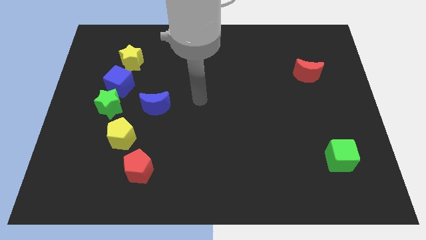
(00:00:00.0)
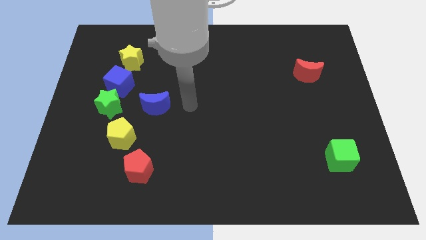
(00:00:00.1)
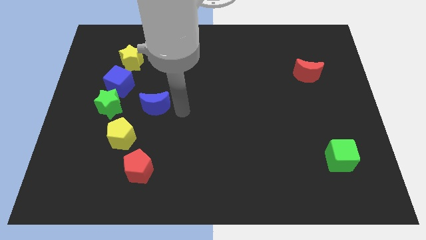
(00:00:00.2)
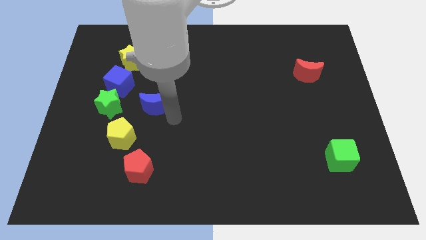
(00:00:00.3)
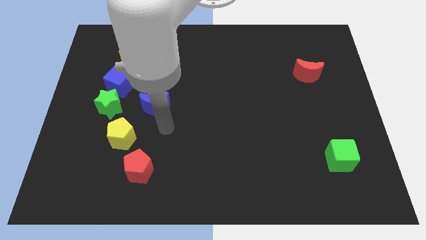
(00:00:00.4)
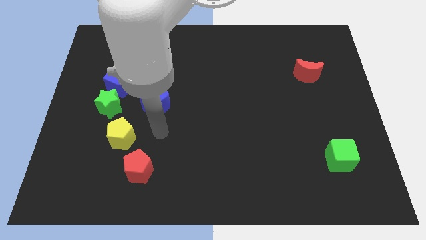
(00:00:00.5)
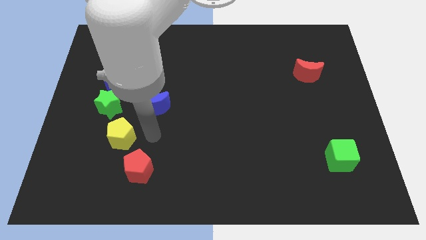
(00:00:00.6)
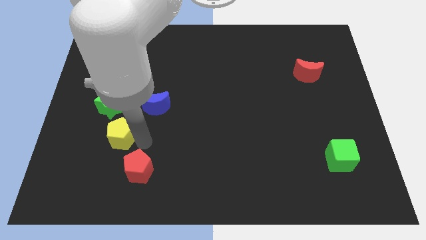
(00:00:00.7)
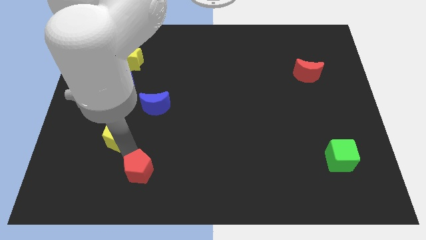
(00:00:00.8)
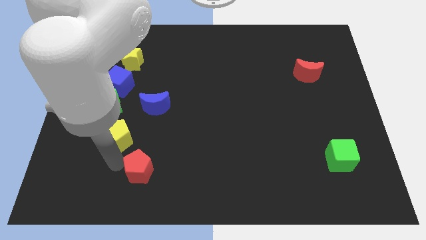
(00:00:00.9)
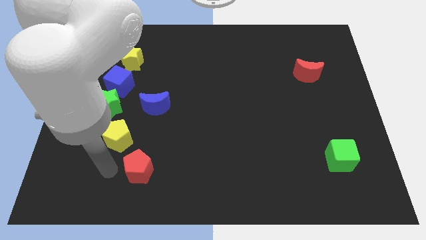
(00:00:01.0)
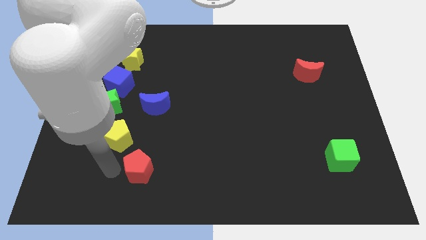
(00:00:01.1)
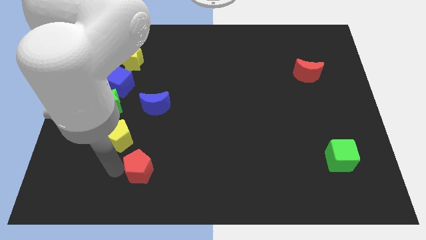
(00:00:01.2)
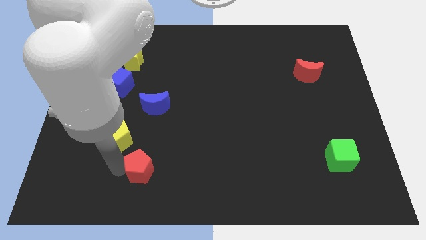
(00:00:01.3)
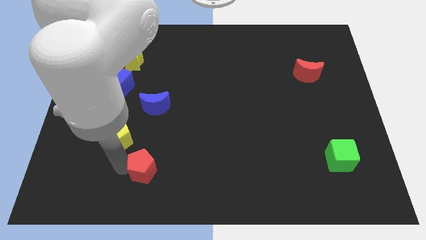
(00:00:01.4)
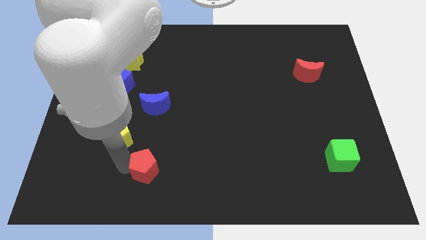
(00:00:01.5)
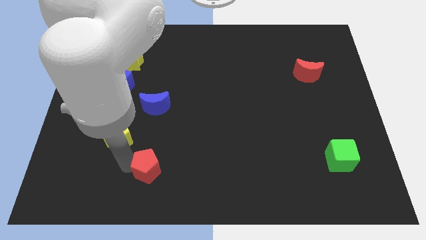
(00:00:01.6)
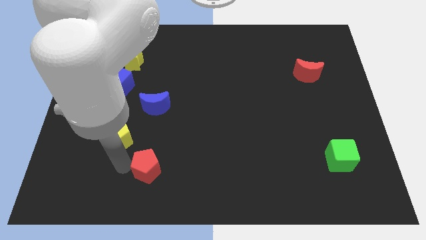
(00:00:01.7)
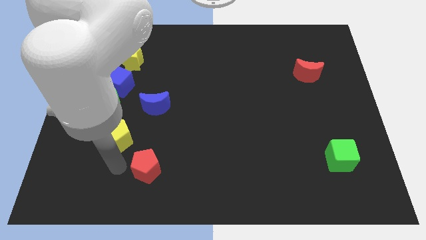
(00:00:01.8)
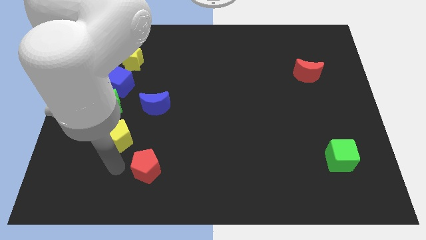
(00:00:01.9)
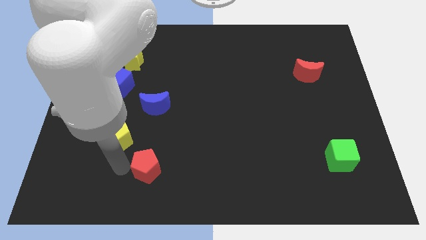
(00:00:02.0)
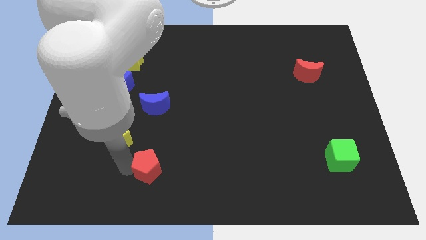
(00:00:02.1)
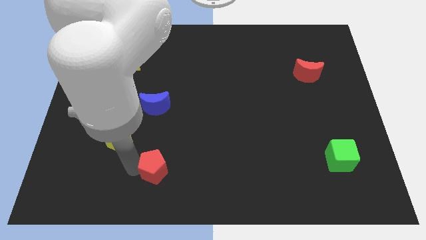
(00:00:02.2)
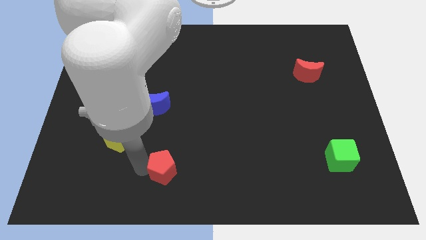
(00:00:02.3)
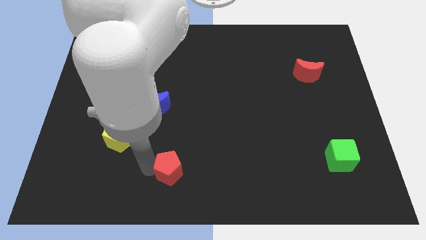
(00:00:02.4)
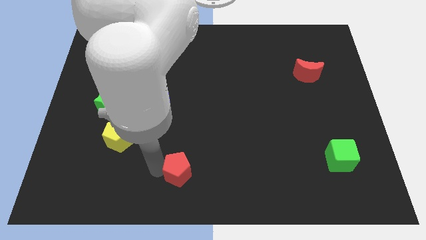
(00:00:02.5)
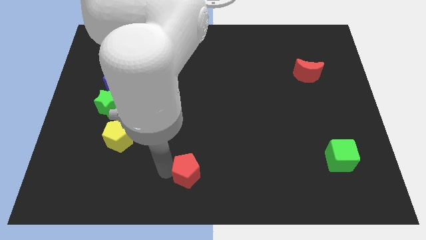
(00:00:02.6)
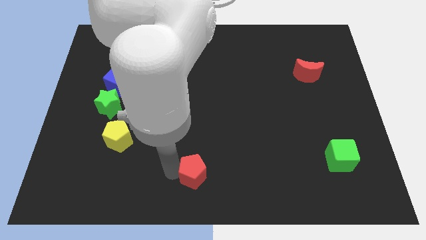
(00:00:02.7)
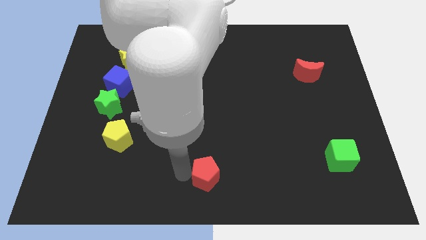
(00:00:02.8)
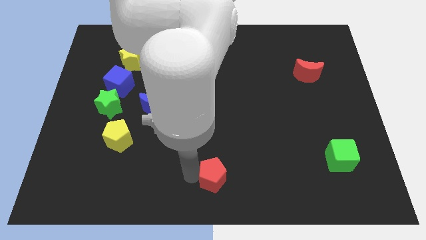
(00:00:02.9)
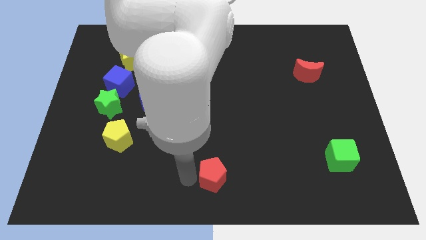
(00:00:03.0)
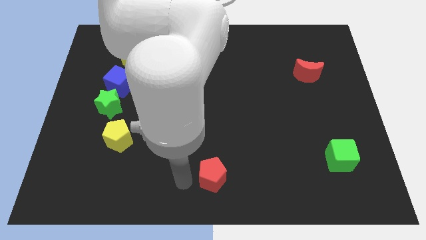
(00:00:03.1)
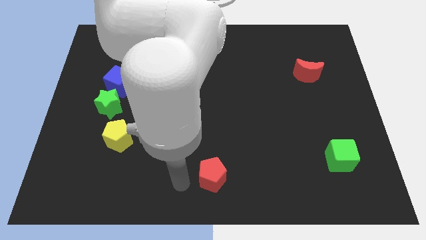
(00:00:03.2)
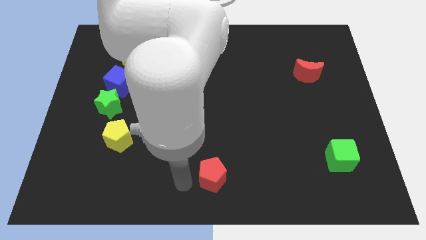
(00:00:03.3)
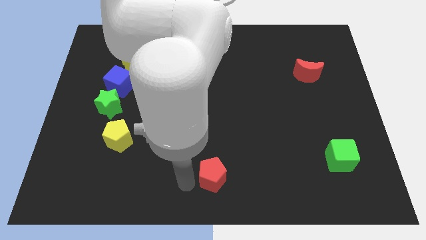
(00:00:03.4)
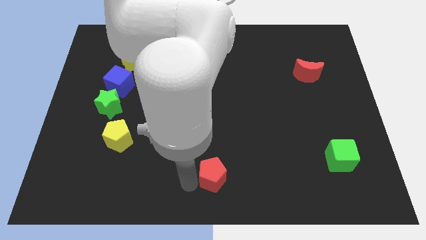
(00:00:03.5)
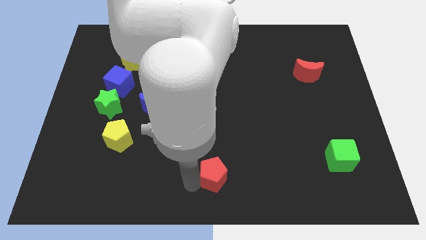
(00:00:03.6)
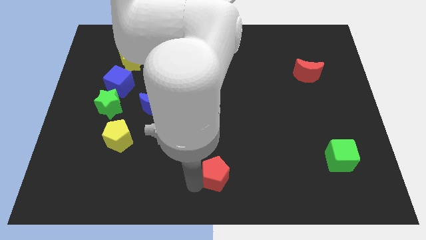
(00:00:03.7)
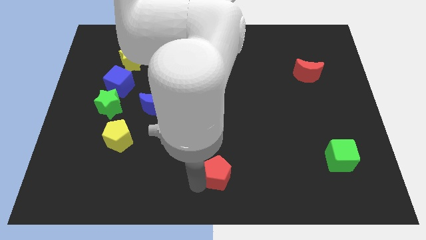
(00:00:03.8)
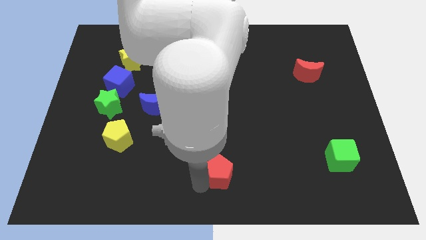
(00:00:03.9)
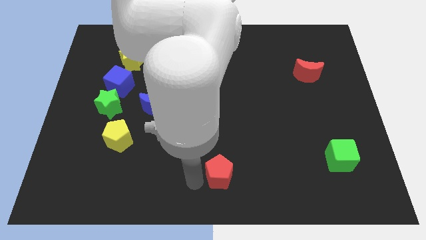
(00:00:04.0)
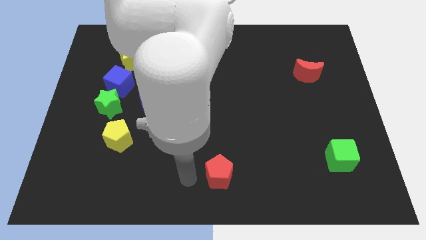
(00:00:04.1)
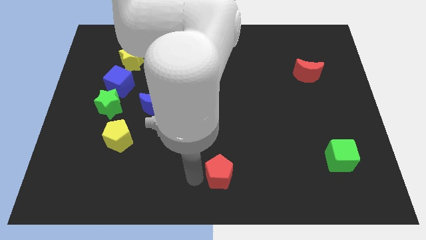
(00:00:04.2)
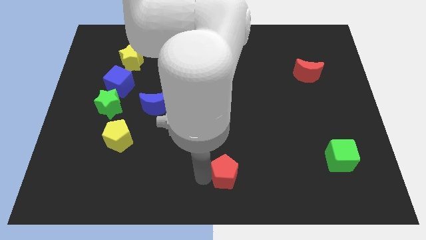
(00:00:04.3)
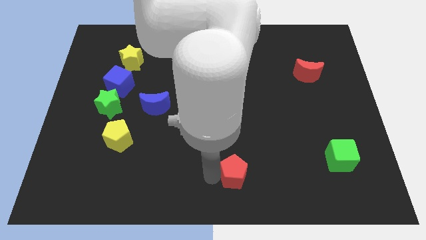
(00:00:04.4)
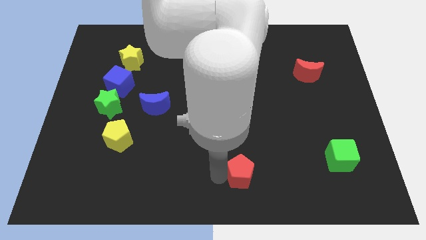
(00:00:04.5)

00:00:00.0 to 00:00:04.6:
move the red pentagon to the right

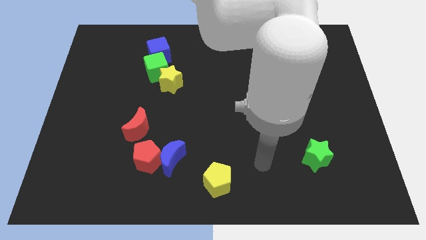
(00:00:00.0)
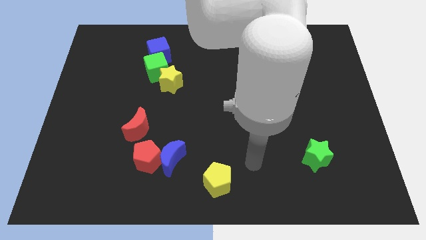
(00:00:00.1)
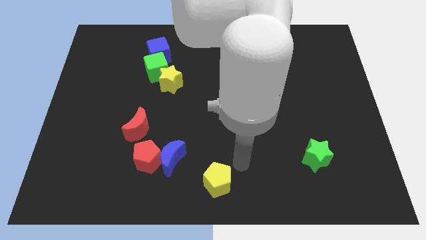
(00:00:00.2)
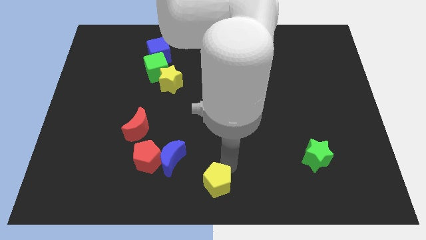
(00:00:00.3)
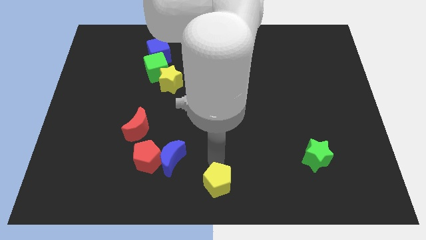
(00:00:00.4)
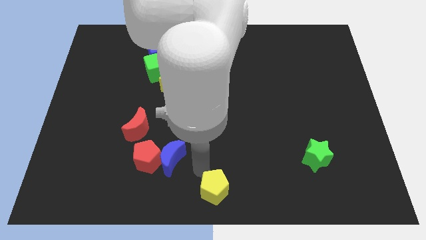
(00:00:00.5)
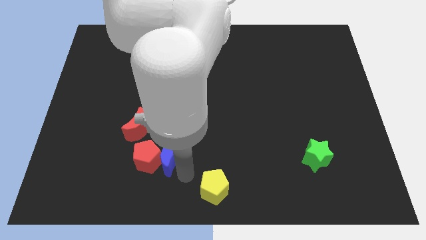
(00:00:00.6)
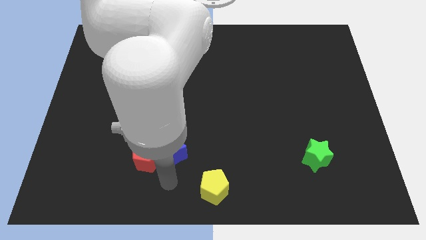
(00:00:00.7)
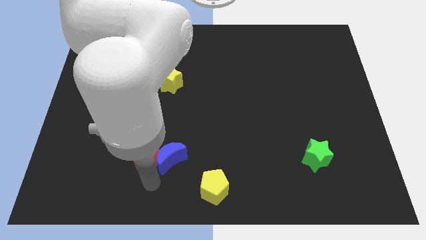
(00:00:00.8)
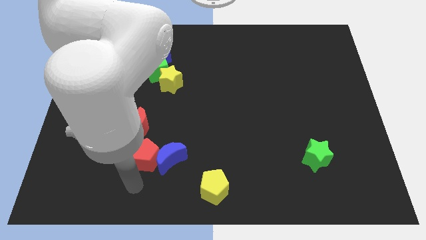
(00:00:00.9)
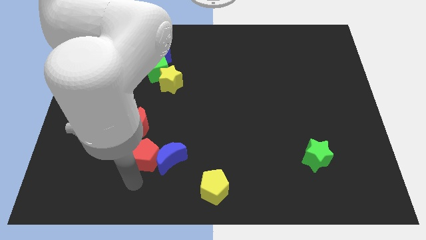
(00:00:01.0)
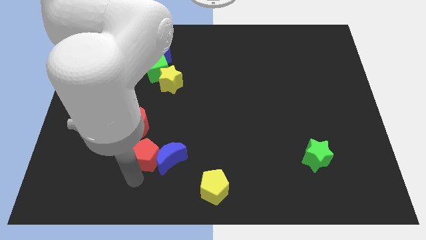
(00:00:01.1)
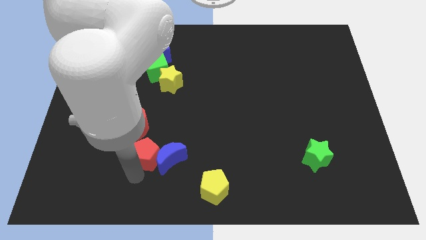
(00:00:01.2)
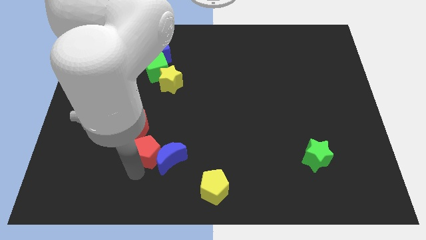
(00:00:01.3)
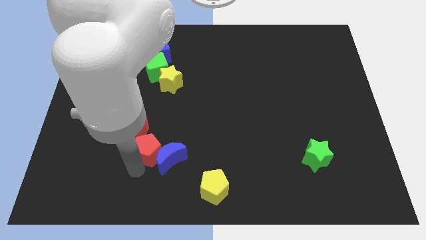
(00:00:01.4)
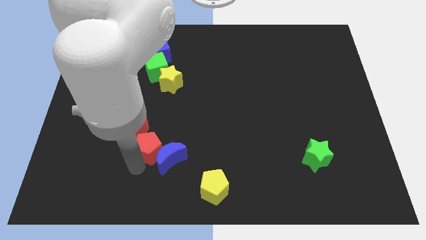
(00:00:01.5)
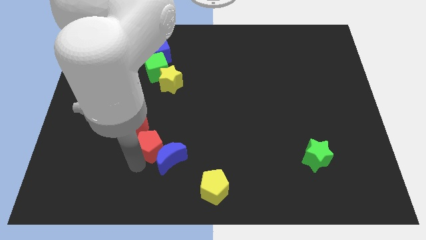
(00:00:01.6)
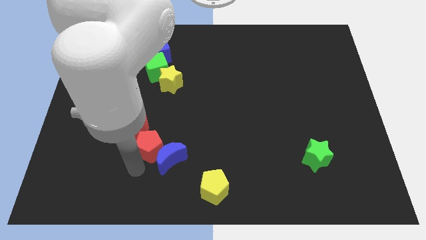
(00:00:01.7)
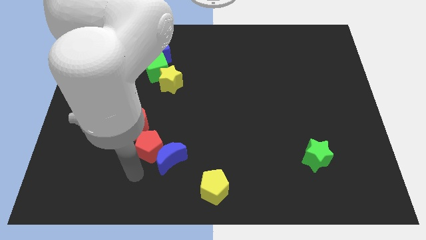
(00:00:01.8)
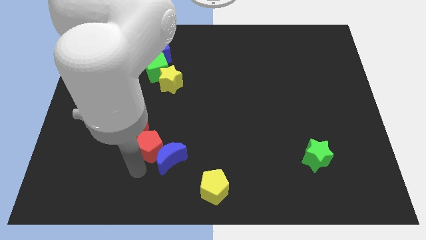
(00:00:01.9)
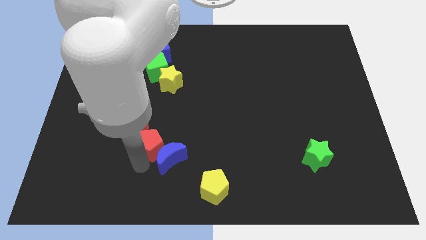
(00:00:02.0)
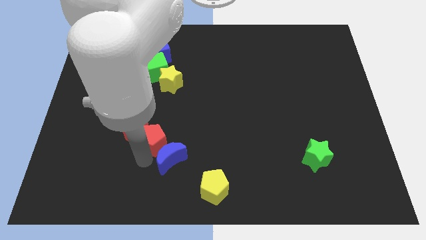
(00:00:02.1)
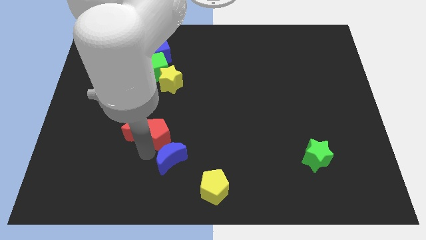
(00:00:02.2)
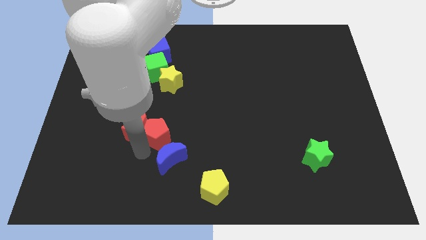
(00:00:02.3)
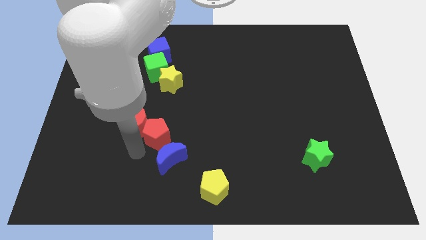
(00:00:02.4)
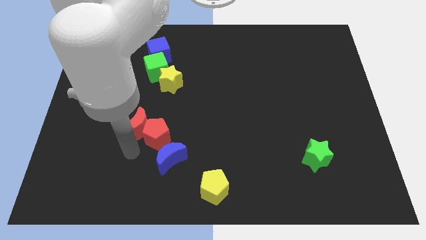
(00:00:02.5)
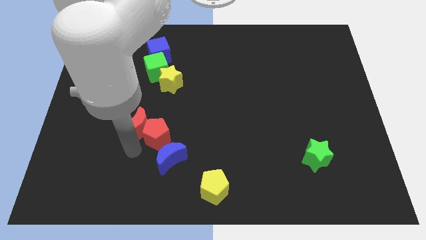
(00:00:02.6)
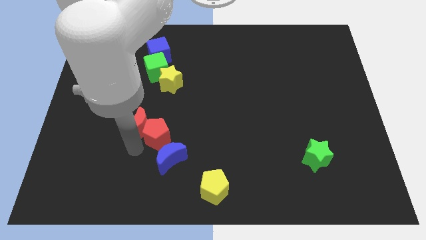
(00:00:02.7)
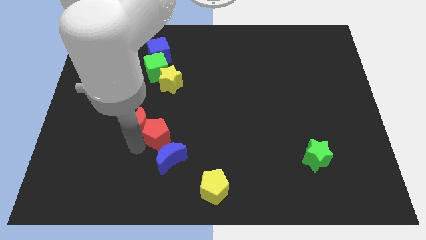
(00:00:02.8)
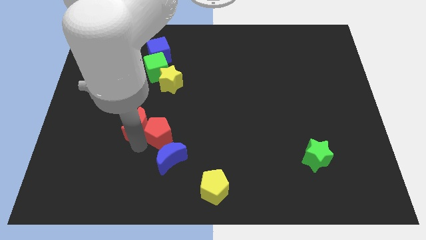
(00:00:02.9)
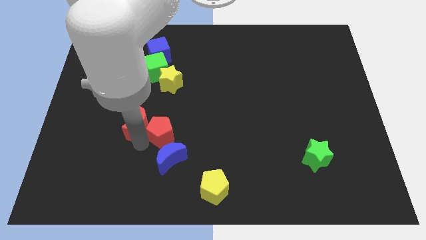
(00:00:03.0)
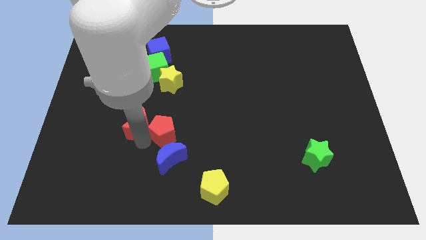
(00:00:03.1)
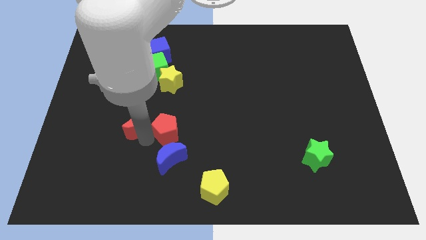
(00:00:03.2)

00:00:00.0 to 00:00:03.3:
push the red pentagon a bit diagonally up and right

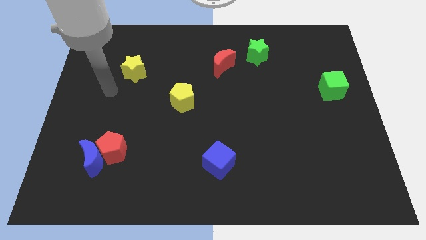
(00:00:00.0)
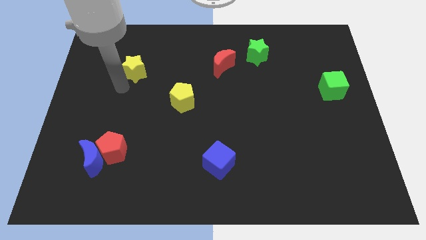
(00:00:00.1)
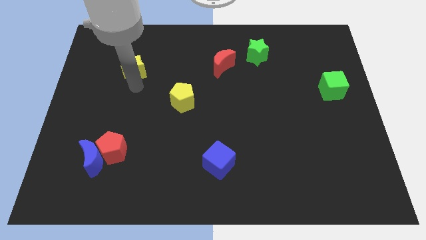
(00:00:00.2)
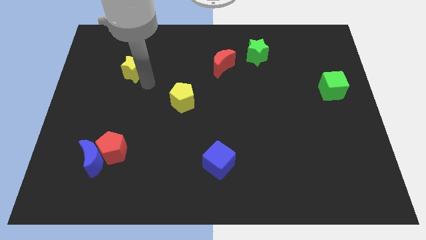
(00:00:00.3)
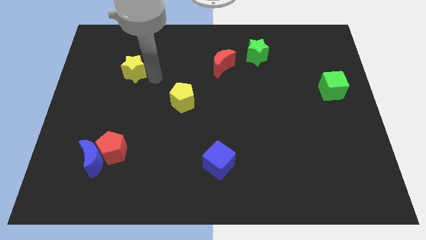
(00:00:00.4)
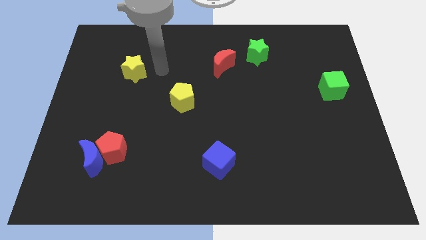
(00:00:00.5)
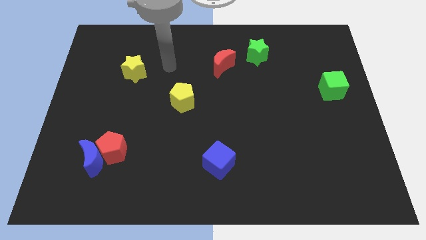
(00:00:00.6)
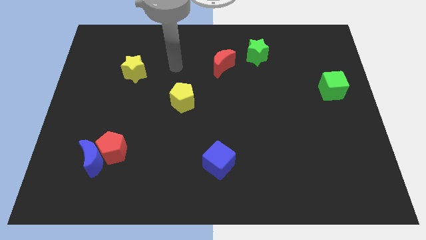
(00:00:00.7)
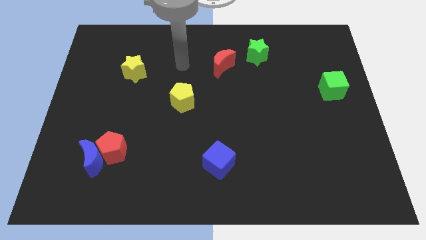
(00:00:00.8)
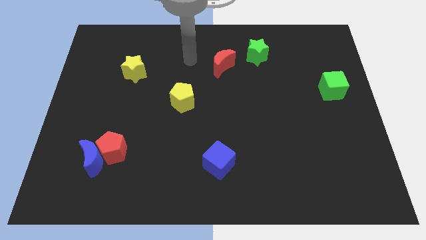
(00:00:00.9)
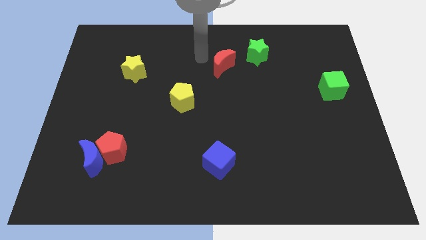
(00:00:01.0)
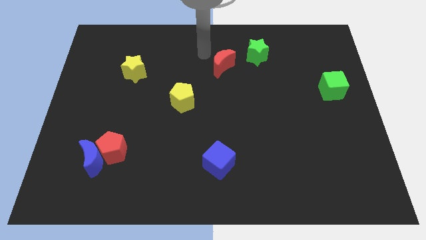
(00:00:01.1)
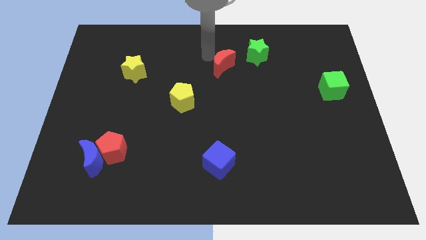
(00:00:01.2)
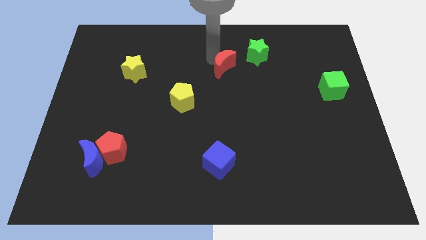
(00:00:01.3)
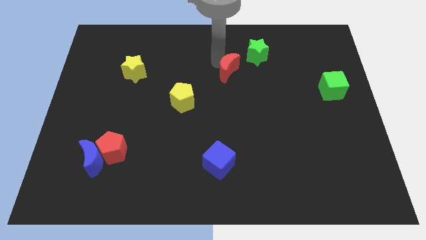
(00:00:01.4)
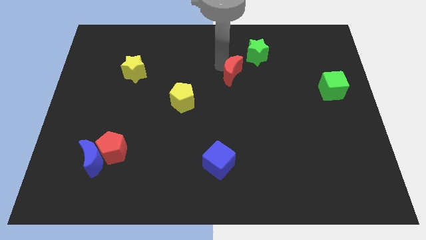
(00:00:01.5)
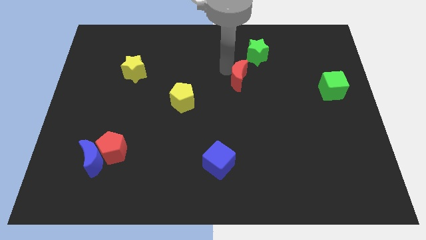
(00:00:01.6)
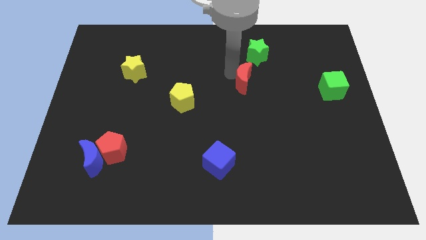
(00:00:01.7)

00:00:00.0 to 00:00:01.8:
move the red moon a little diagonally downwards and right
